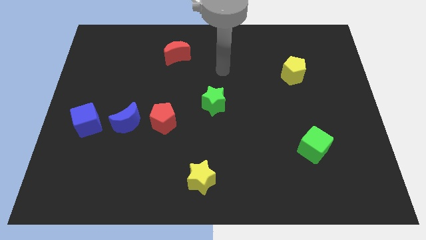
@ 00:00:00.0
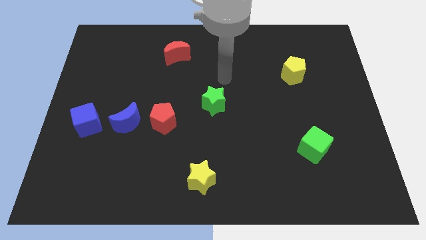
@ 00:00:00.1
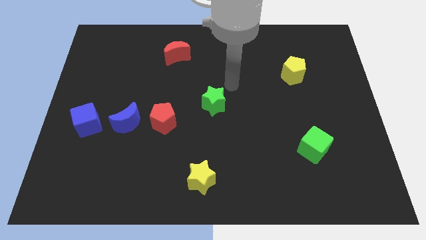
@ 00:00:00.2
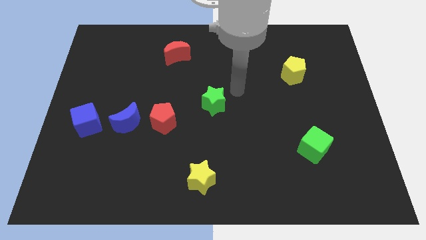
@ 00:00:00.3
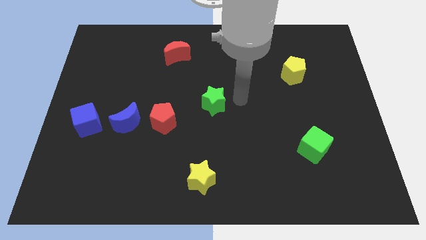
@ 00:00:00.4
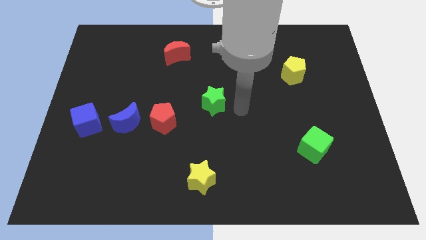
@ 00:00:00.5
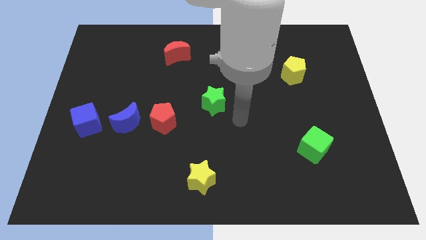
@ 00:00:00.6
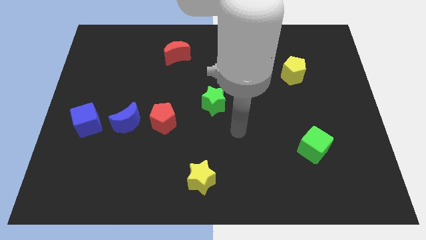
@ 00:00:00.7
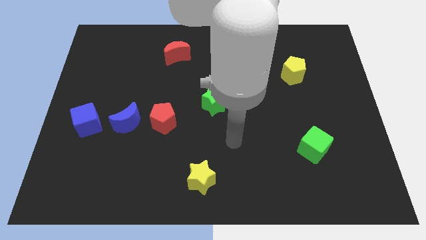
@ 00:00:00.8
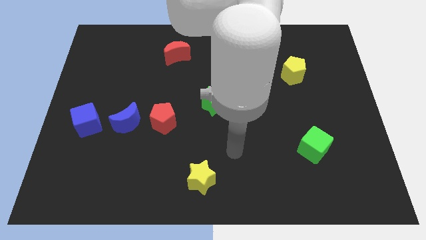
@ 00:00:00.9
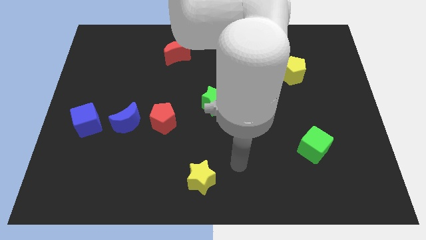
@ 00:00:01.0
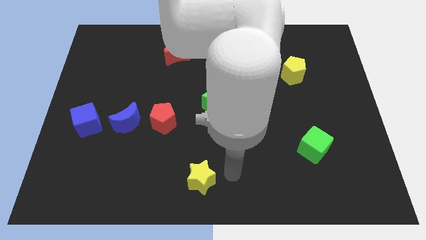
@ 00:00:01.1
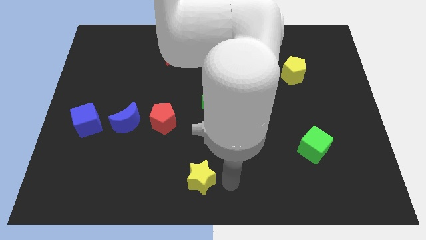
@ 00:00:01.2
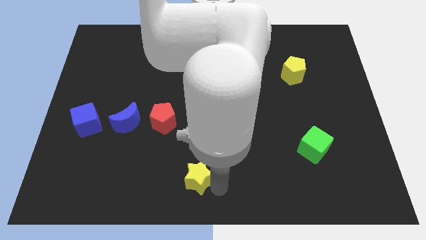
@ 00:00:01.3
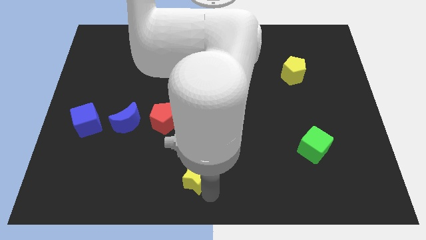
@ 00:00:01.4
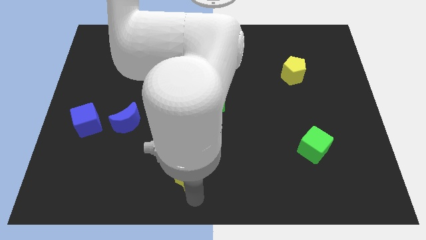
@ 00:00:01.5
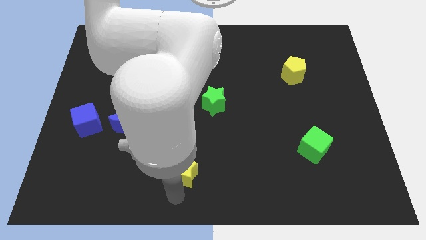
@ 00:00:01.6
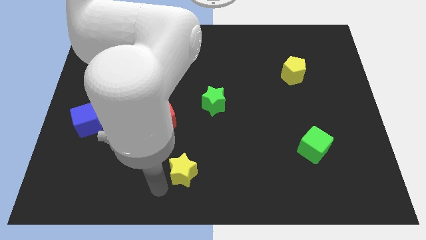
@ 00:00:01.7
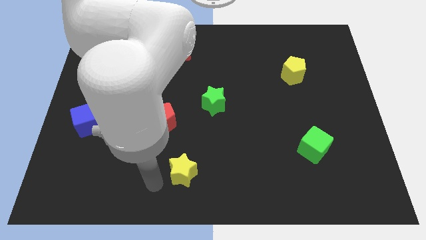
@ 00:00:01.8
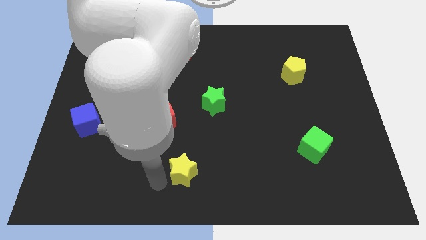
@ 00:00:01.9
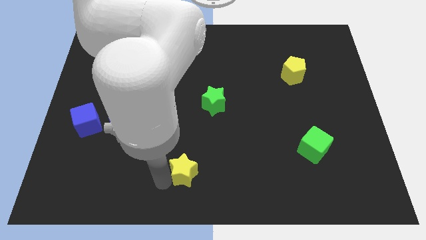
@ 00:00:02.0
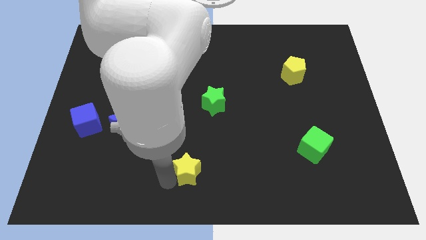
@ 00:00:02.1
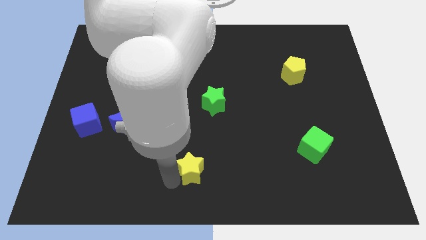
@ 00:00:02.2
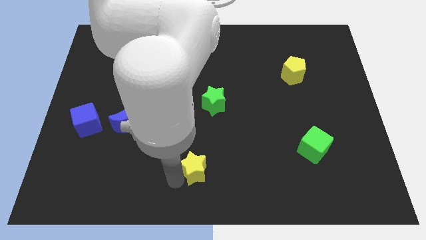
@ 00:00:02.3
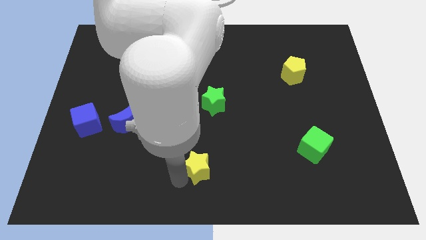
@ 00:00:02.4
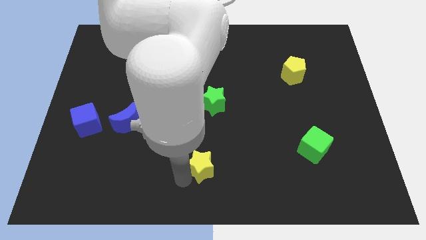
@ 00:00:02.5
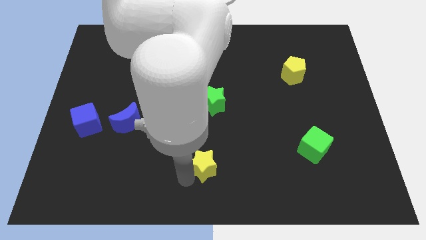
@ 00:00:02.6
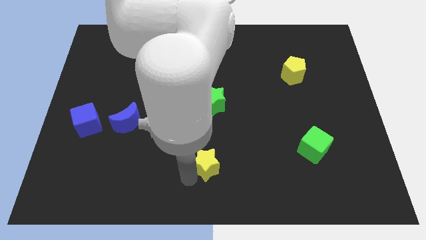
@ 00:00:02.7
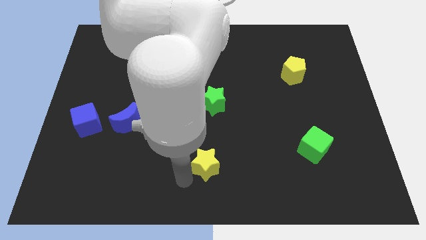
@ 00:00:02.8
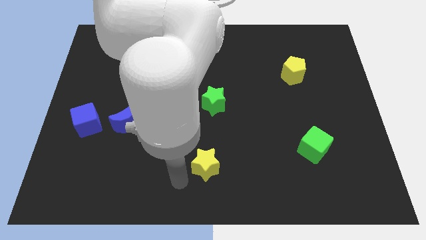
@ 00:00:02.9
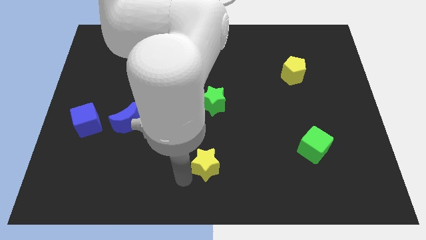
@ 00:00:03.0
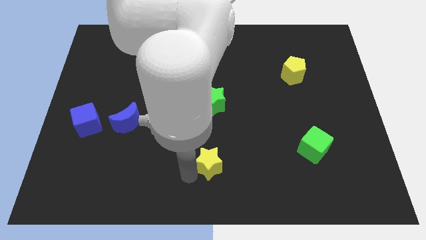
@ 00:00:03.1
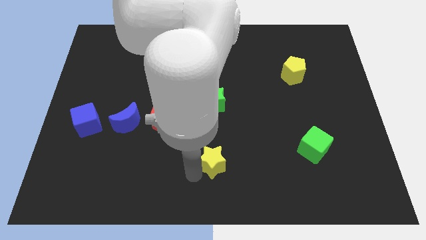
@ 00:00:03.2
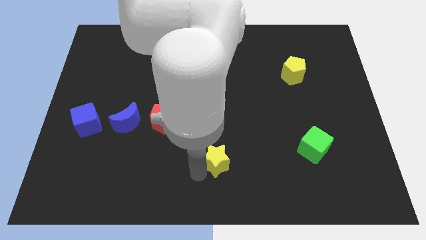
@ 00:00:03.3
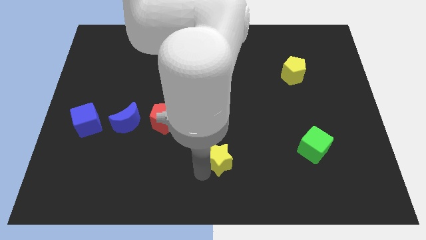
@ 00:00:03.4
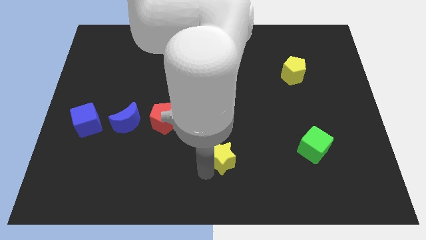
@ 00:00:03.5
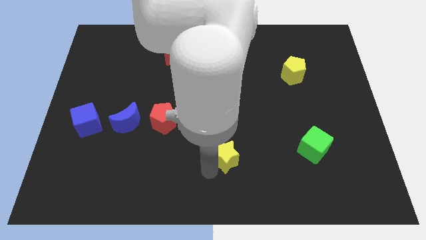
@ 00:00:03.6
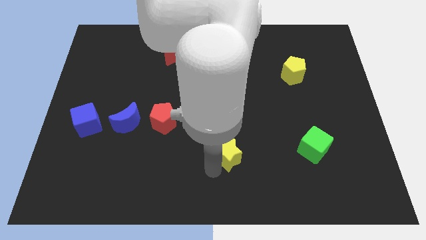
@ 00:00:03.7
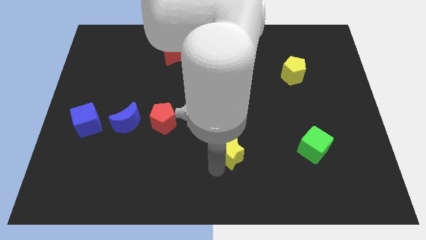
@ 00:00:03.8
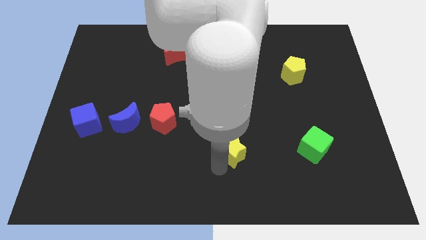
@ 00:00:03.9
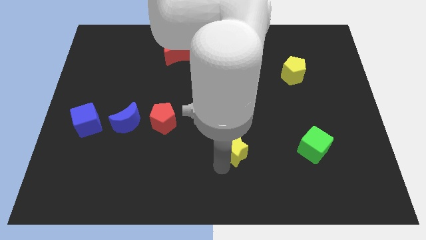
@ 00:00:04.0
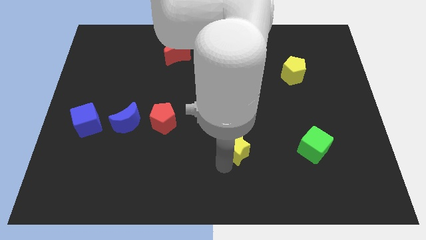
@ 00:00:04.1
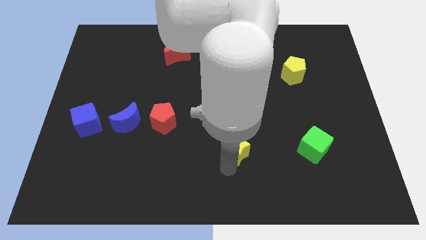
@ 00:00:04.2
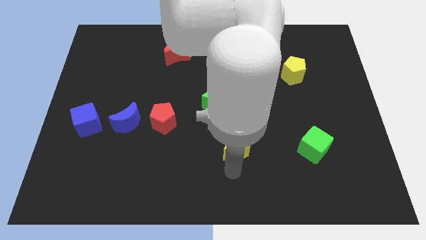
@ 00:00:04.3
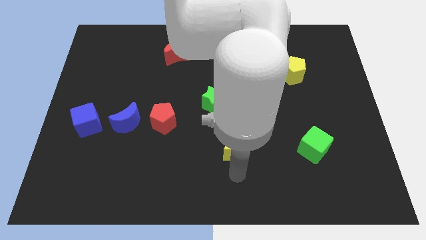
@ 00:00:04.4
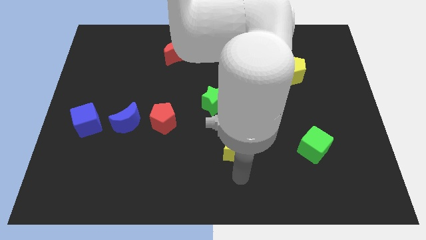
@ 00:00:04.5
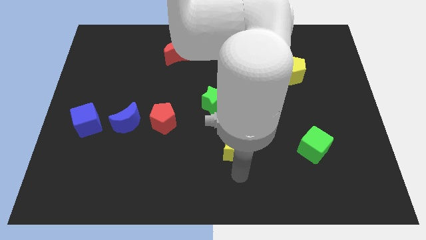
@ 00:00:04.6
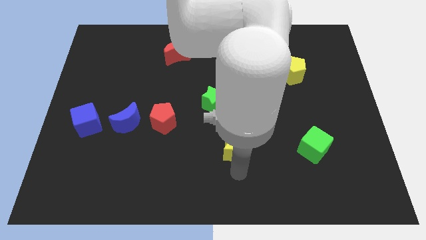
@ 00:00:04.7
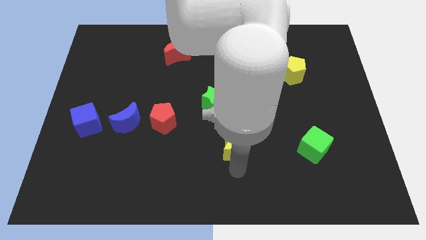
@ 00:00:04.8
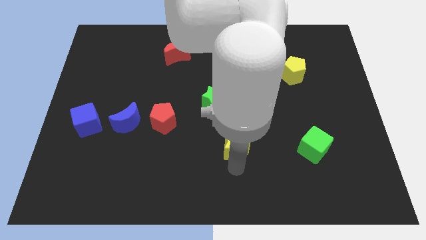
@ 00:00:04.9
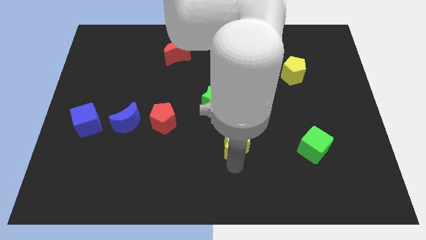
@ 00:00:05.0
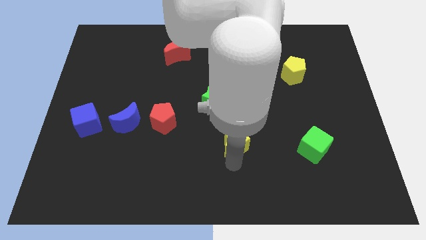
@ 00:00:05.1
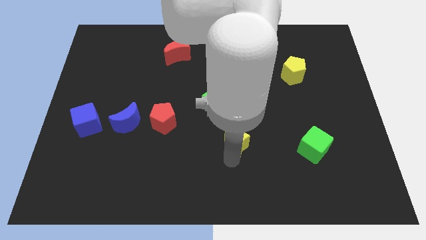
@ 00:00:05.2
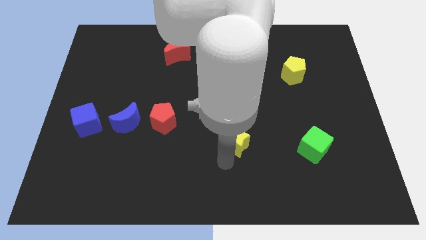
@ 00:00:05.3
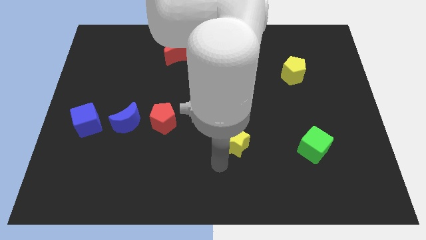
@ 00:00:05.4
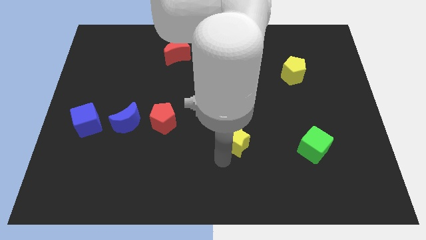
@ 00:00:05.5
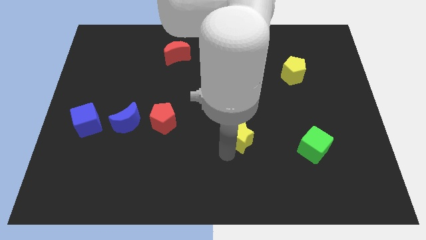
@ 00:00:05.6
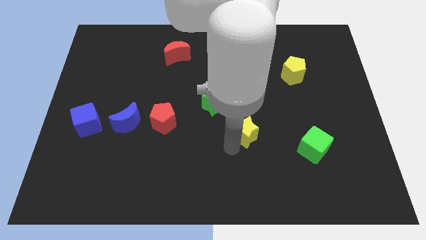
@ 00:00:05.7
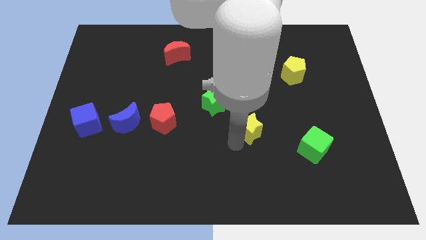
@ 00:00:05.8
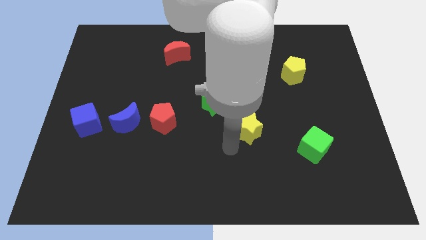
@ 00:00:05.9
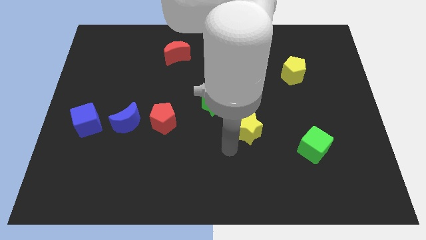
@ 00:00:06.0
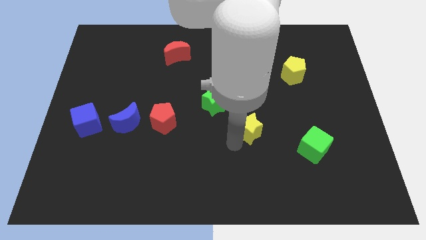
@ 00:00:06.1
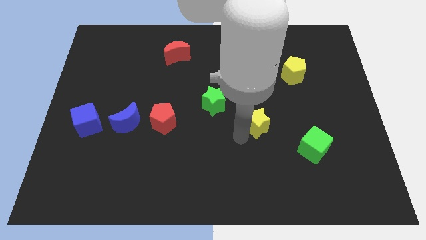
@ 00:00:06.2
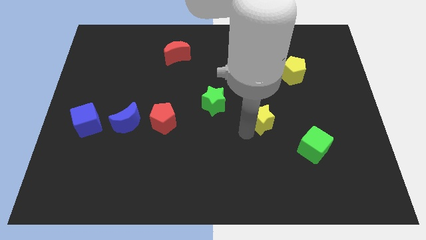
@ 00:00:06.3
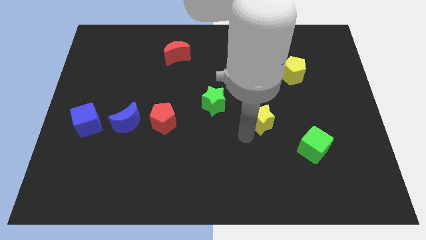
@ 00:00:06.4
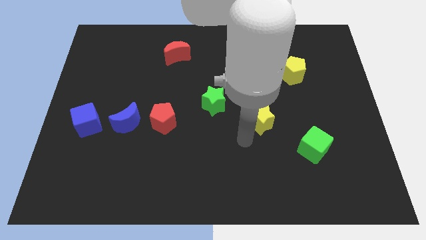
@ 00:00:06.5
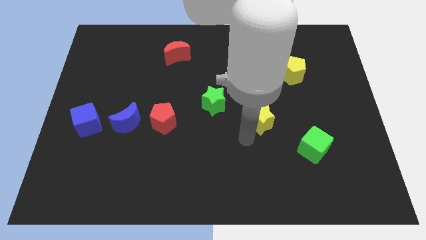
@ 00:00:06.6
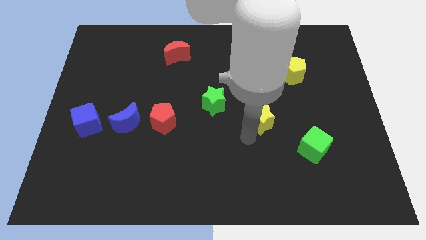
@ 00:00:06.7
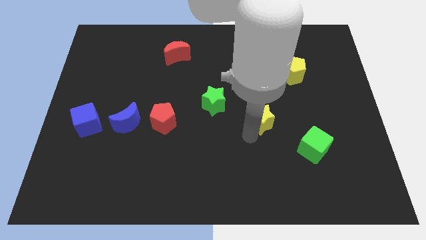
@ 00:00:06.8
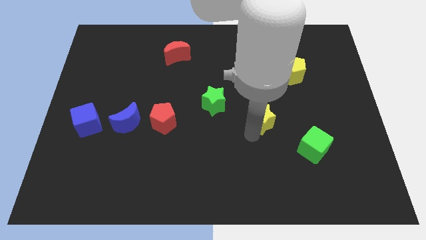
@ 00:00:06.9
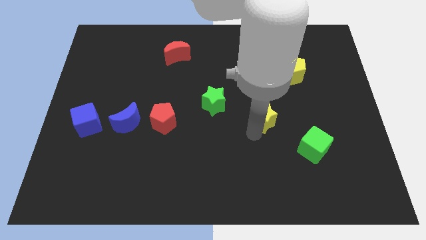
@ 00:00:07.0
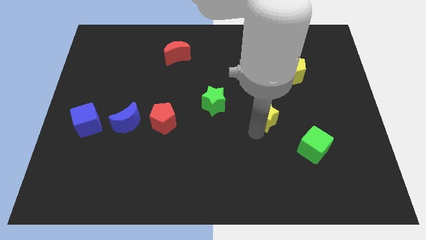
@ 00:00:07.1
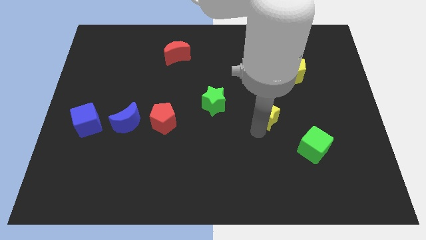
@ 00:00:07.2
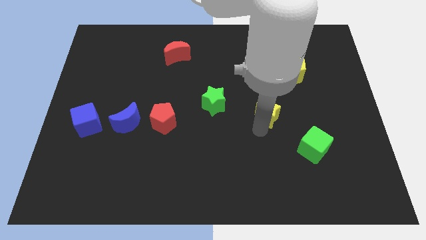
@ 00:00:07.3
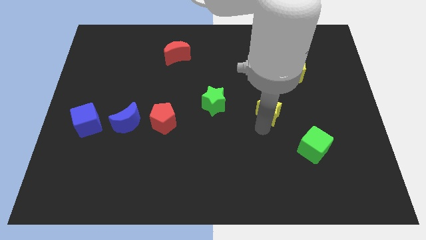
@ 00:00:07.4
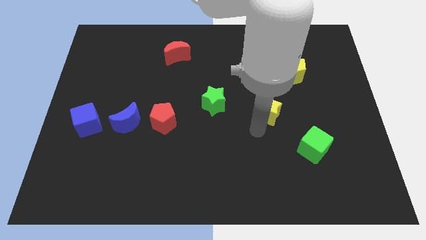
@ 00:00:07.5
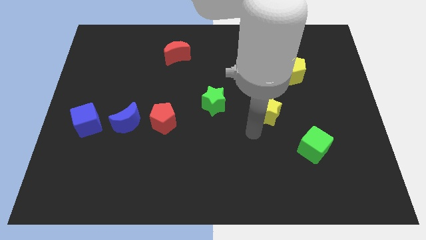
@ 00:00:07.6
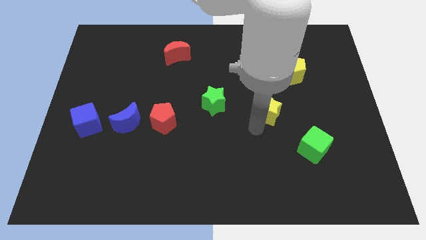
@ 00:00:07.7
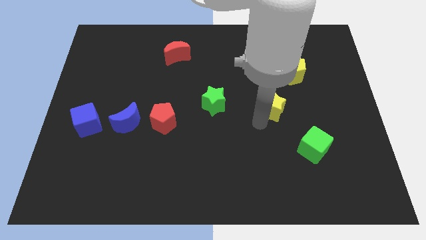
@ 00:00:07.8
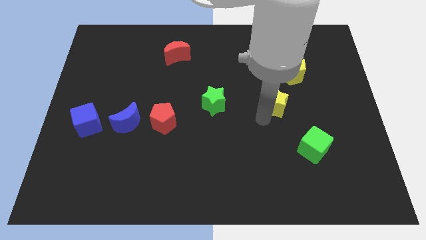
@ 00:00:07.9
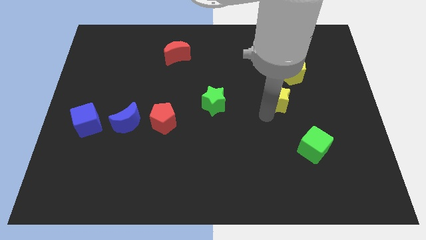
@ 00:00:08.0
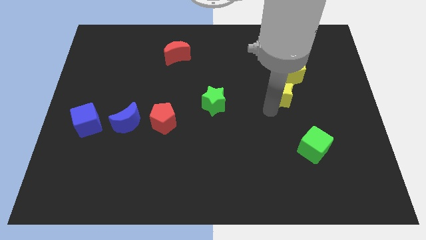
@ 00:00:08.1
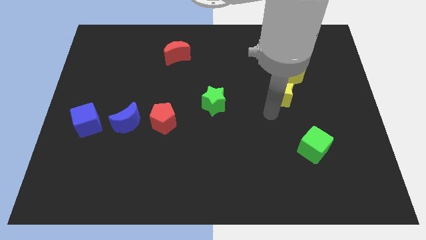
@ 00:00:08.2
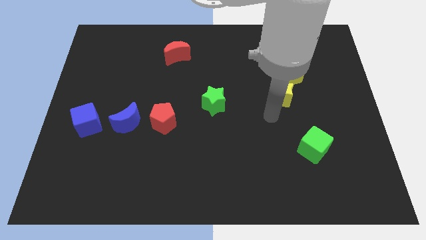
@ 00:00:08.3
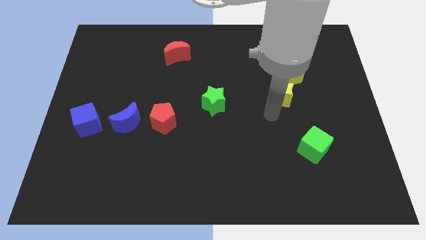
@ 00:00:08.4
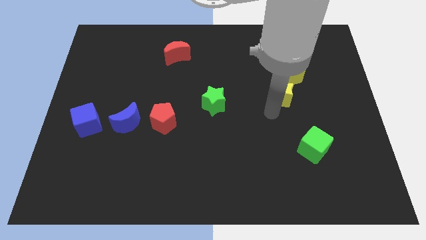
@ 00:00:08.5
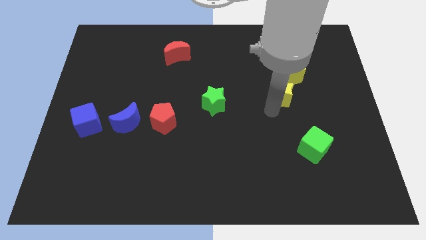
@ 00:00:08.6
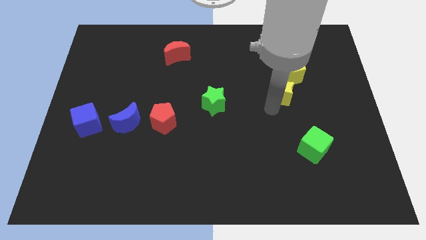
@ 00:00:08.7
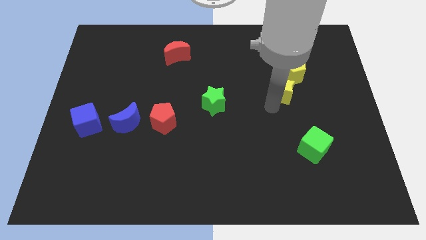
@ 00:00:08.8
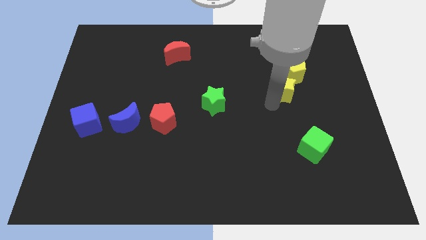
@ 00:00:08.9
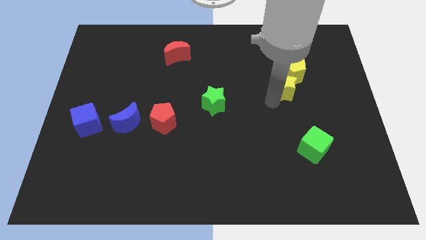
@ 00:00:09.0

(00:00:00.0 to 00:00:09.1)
put the yellow star next to the yellow pentagon
